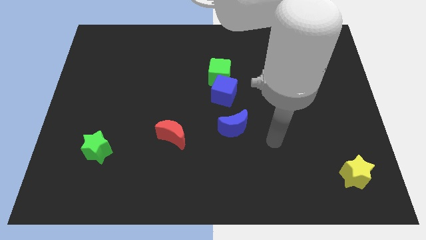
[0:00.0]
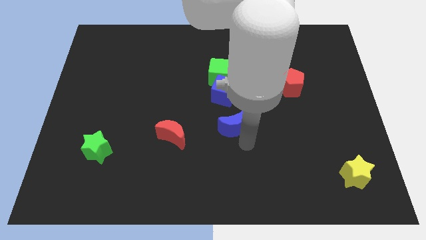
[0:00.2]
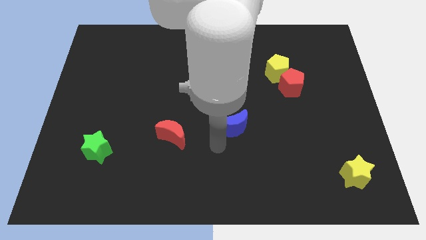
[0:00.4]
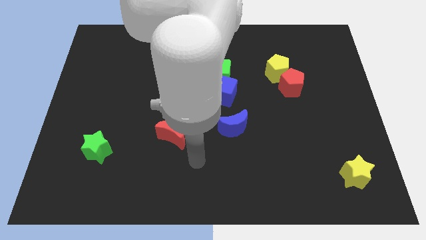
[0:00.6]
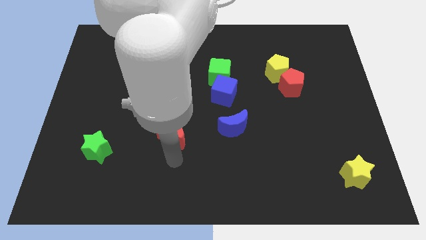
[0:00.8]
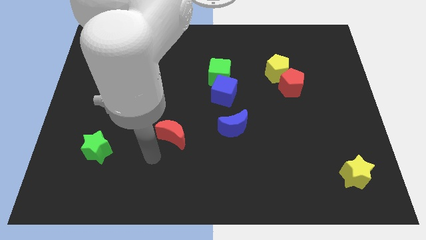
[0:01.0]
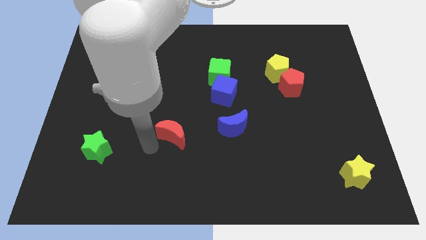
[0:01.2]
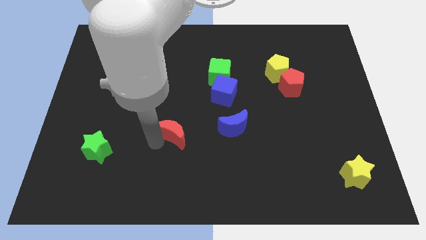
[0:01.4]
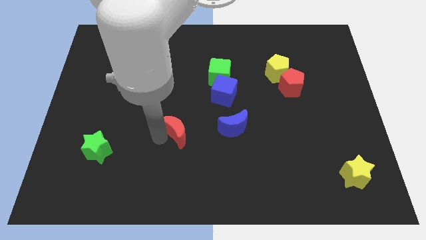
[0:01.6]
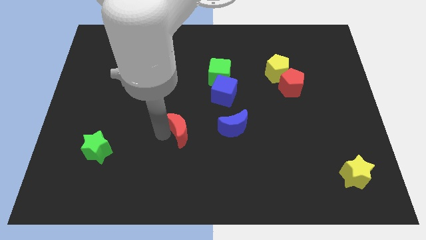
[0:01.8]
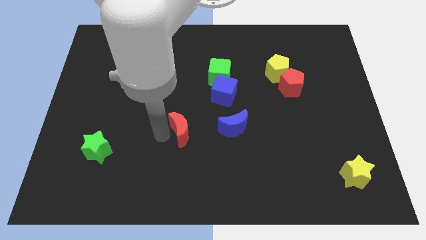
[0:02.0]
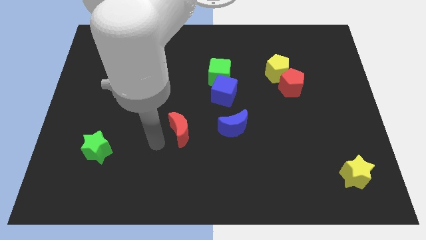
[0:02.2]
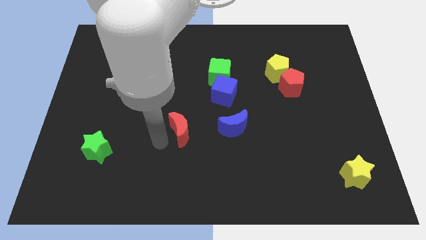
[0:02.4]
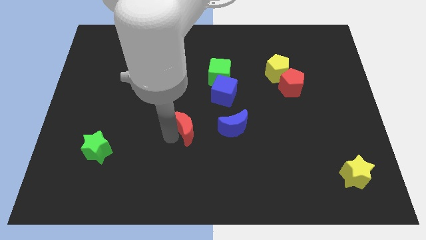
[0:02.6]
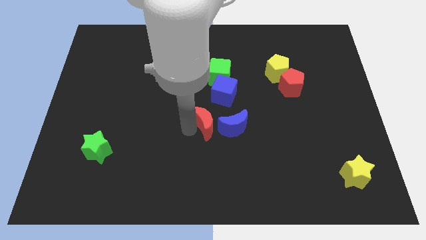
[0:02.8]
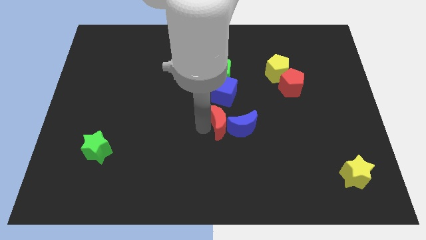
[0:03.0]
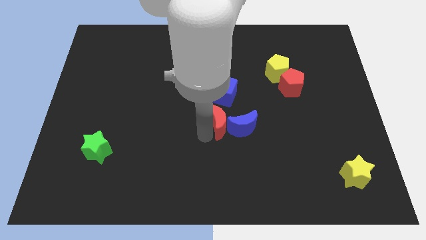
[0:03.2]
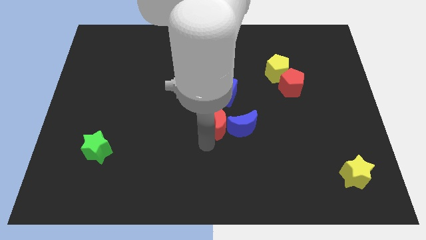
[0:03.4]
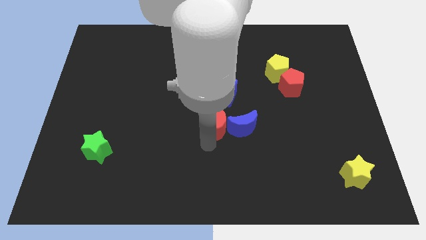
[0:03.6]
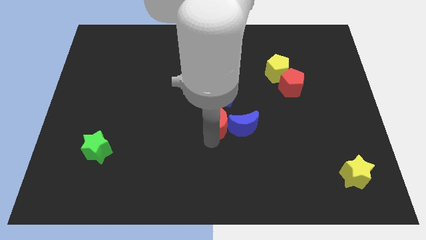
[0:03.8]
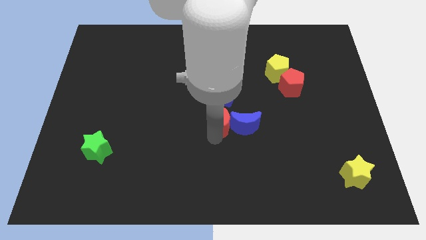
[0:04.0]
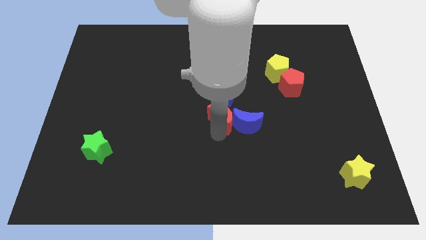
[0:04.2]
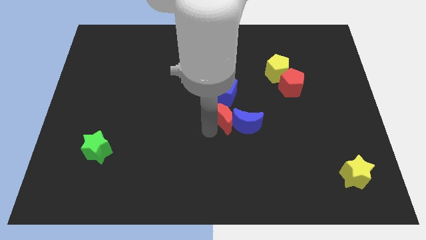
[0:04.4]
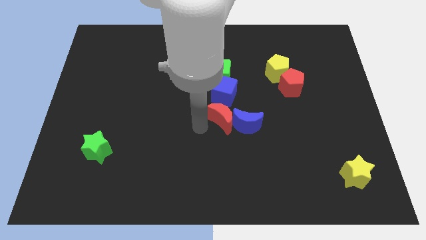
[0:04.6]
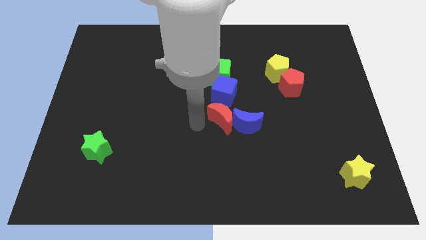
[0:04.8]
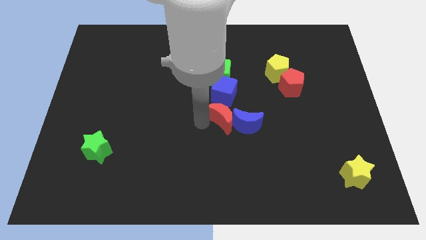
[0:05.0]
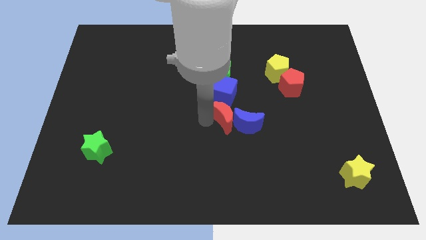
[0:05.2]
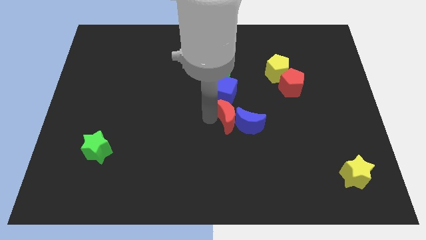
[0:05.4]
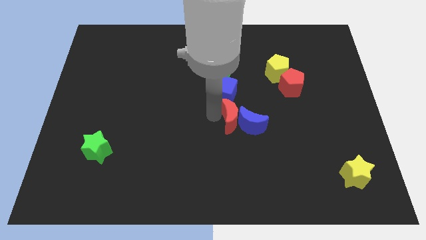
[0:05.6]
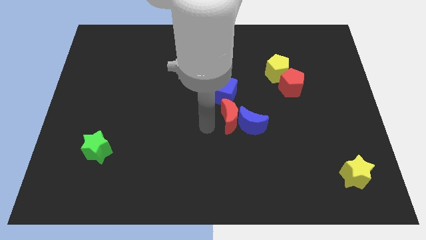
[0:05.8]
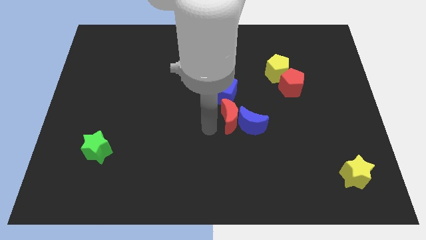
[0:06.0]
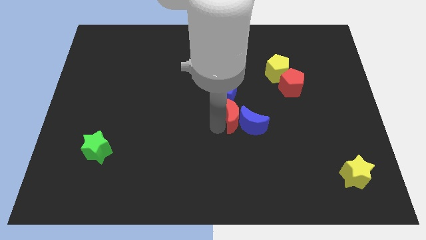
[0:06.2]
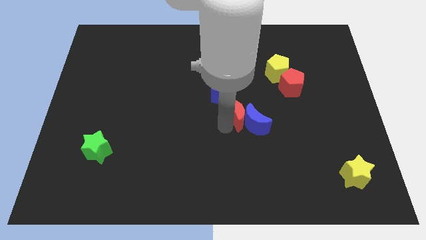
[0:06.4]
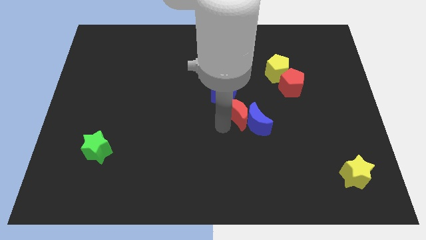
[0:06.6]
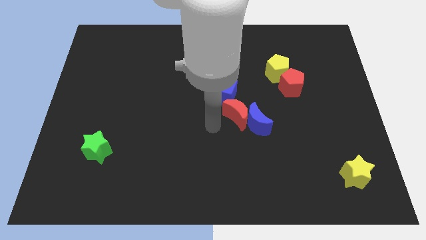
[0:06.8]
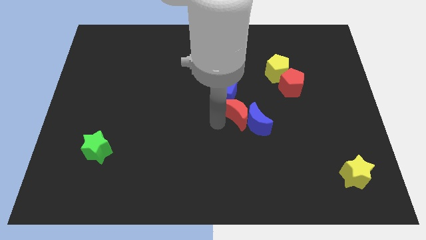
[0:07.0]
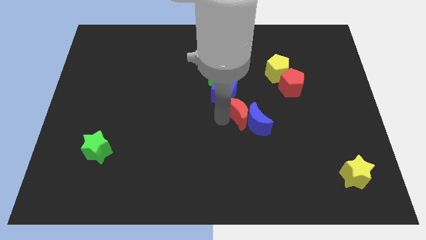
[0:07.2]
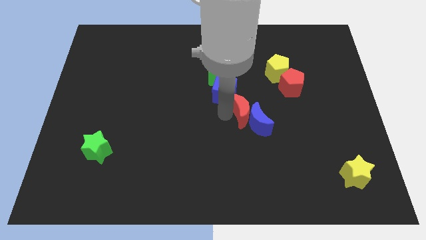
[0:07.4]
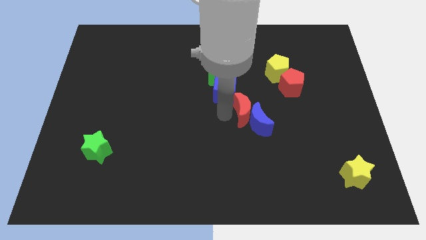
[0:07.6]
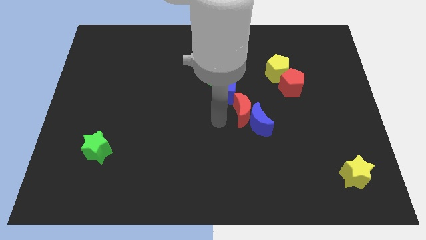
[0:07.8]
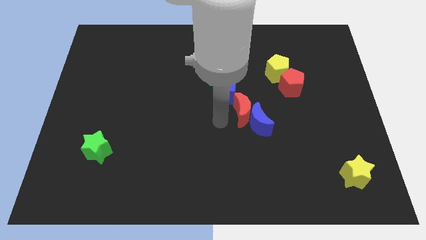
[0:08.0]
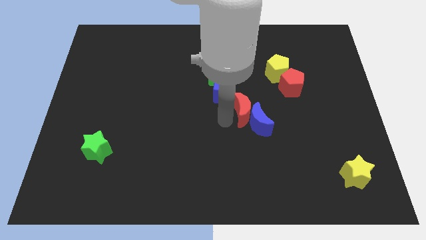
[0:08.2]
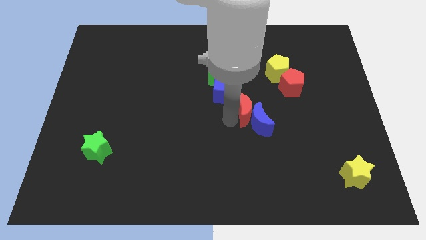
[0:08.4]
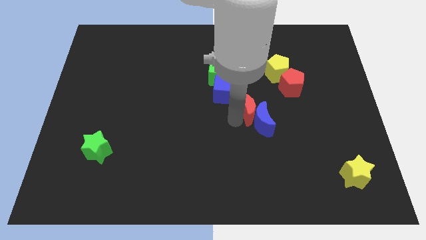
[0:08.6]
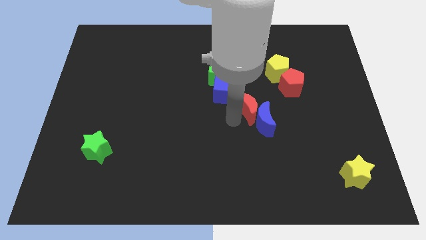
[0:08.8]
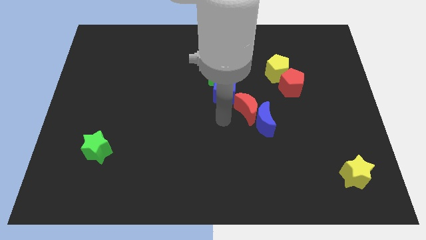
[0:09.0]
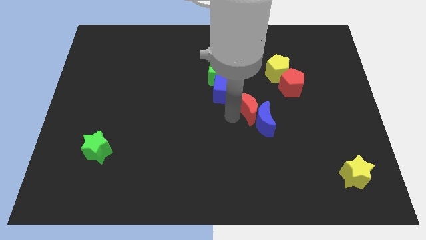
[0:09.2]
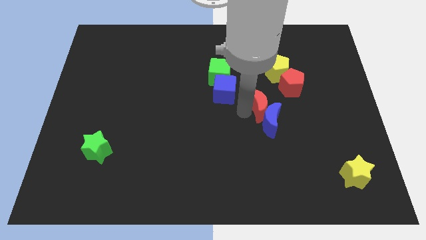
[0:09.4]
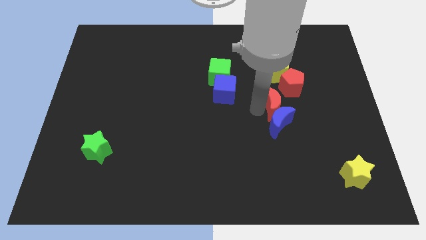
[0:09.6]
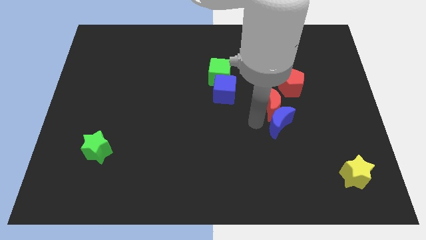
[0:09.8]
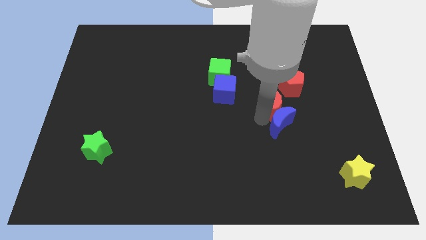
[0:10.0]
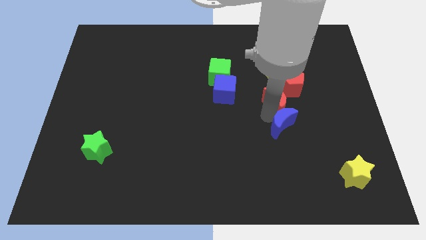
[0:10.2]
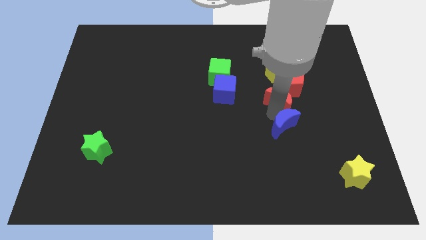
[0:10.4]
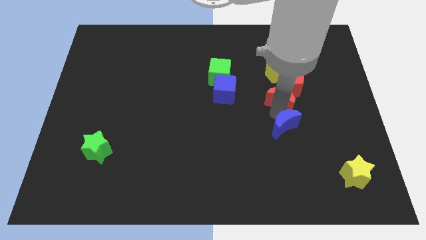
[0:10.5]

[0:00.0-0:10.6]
move the red moon next to the red pentagon

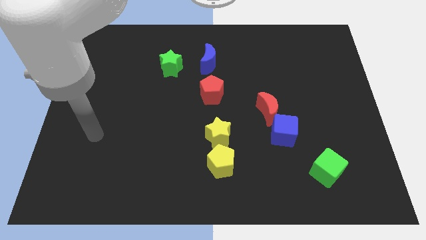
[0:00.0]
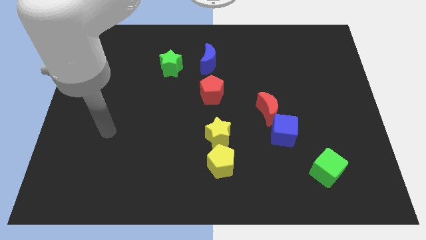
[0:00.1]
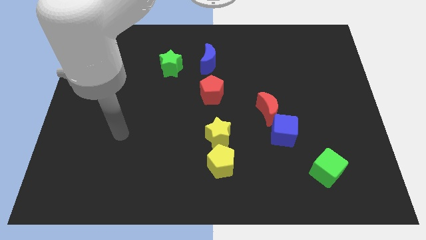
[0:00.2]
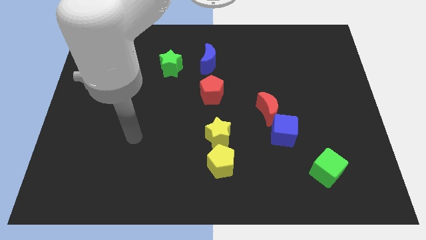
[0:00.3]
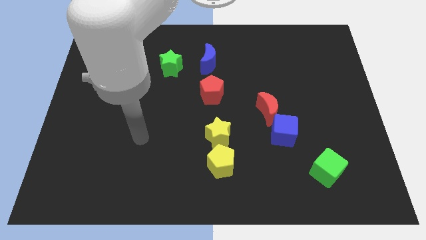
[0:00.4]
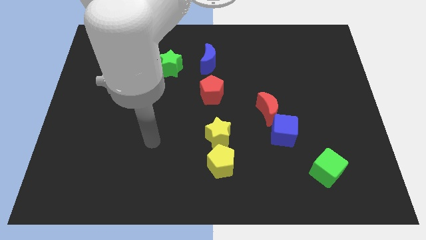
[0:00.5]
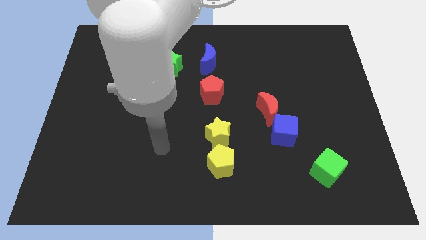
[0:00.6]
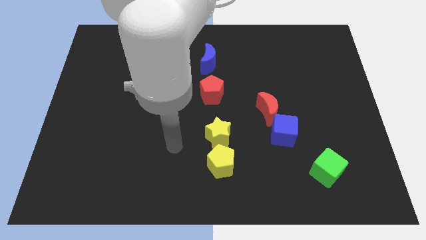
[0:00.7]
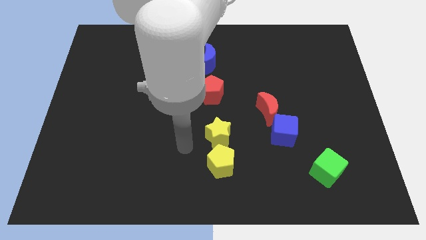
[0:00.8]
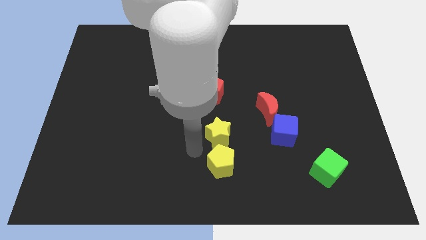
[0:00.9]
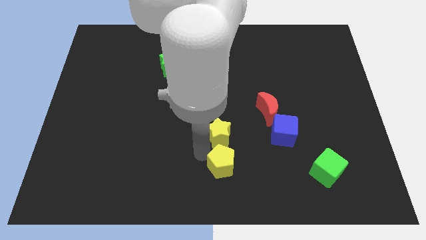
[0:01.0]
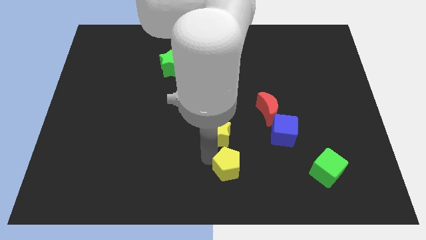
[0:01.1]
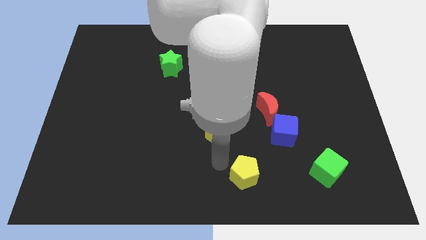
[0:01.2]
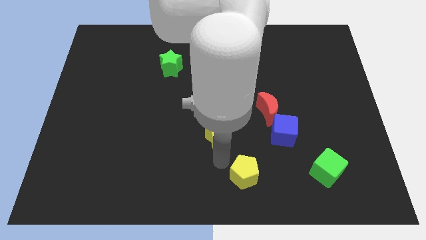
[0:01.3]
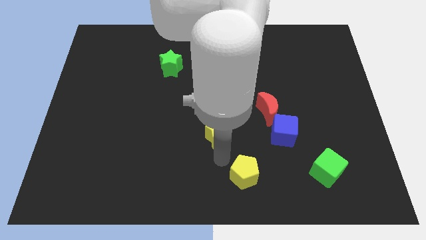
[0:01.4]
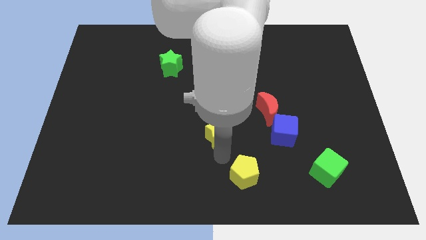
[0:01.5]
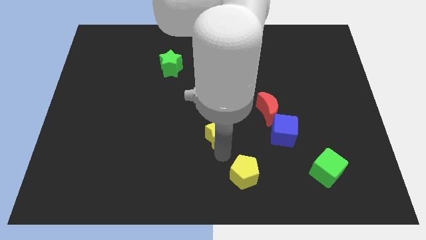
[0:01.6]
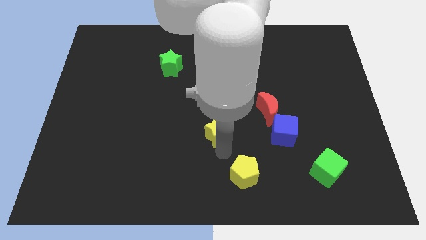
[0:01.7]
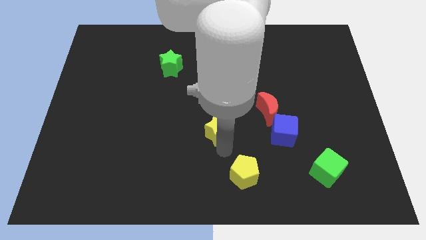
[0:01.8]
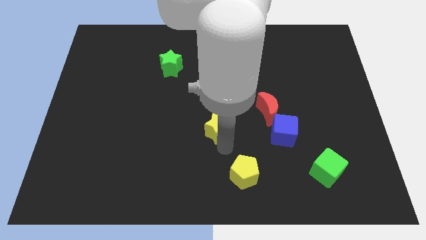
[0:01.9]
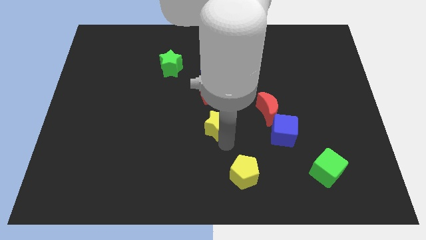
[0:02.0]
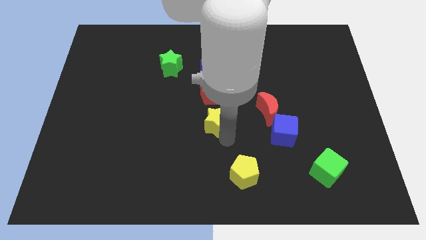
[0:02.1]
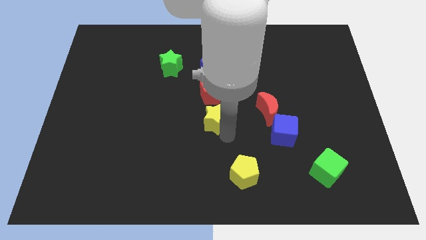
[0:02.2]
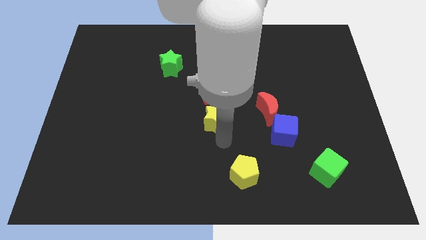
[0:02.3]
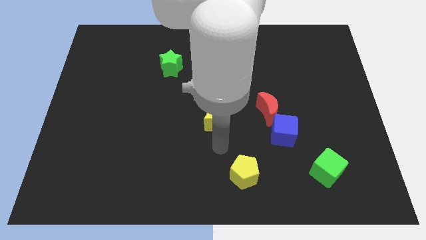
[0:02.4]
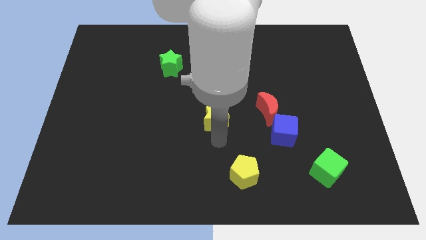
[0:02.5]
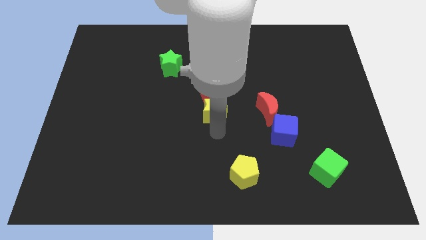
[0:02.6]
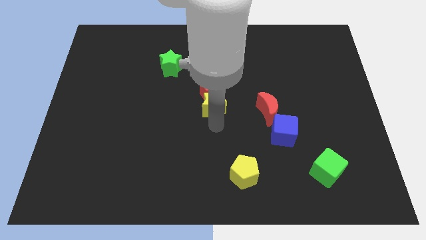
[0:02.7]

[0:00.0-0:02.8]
push the yellow star towards the red pentagon
